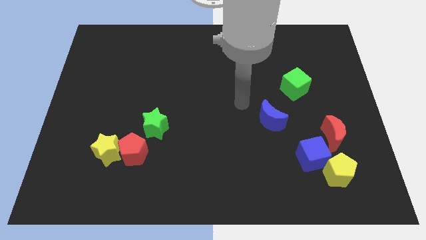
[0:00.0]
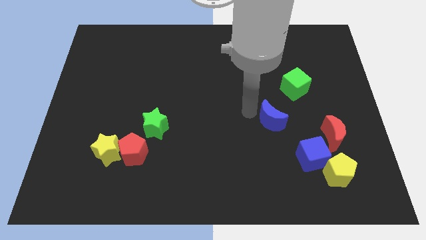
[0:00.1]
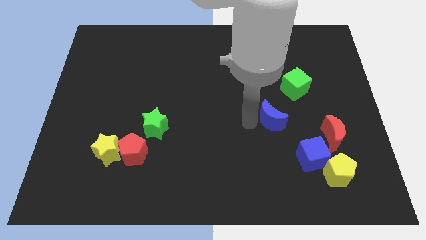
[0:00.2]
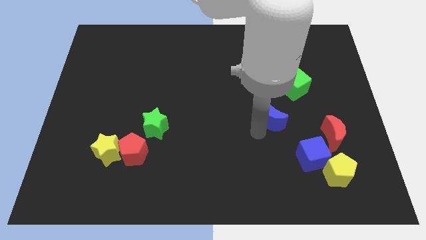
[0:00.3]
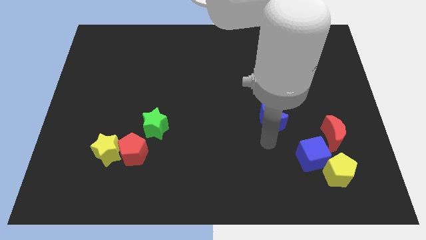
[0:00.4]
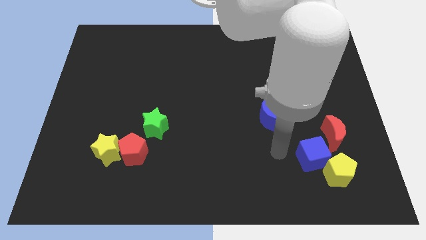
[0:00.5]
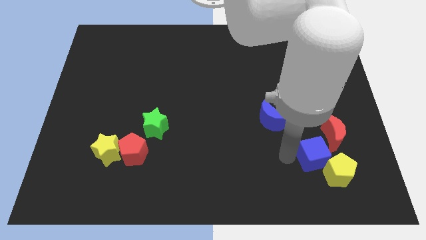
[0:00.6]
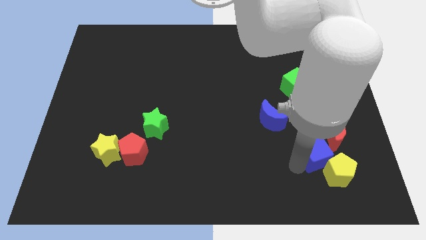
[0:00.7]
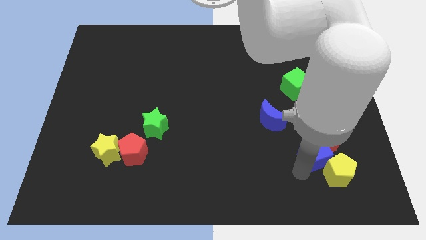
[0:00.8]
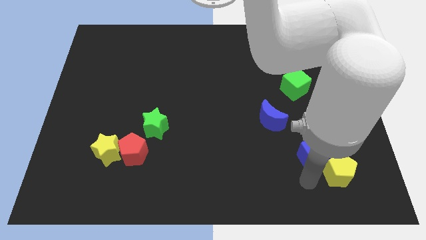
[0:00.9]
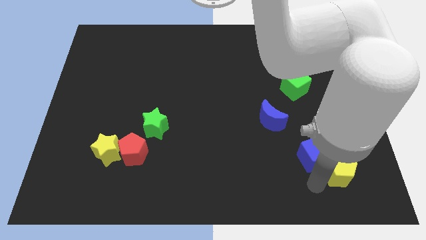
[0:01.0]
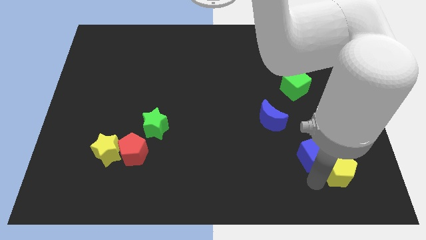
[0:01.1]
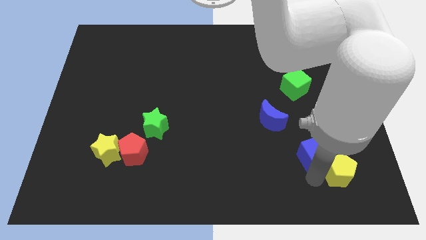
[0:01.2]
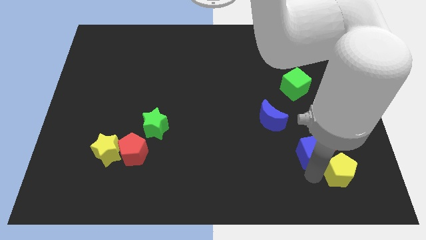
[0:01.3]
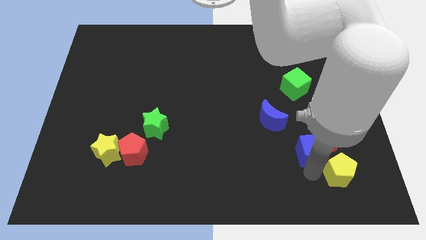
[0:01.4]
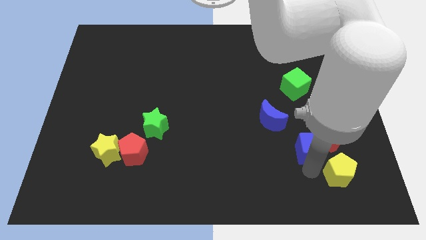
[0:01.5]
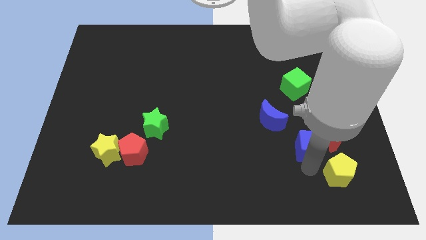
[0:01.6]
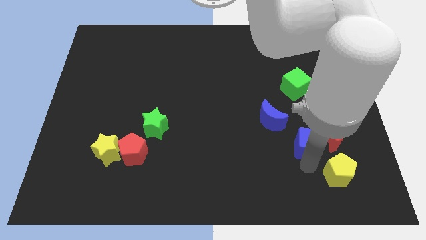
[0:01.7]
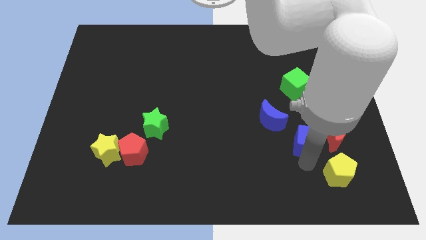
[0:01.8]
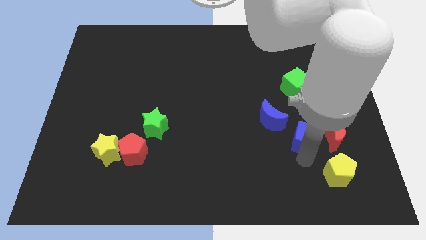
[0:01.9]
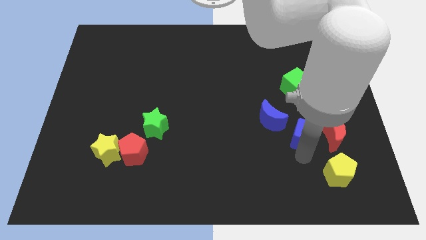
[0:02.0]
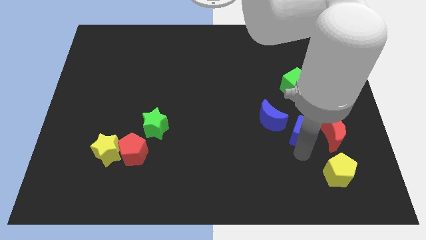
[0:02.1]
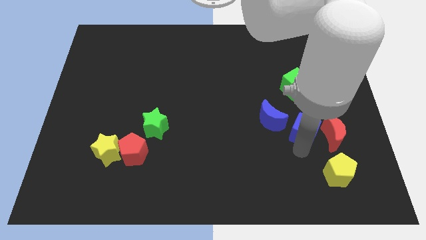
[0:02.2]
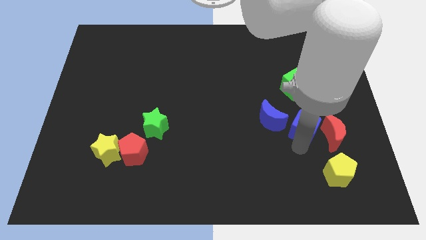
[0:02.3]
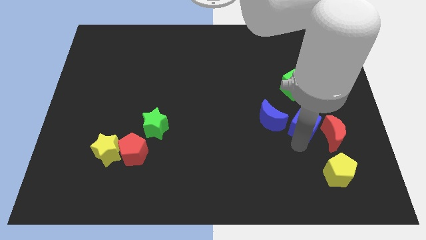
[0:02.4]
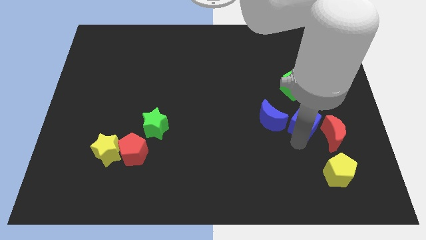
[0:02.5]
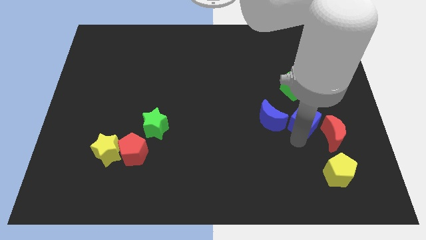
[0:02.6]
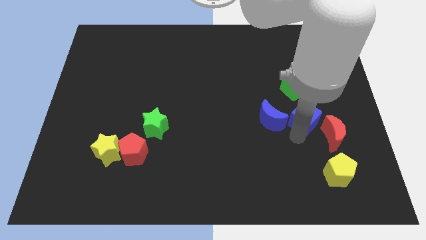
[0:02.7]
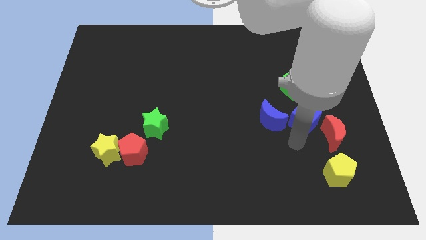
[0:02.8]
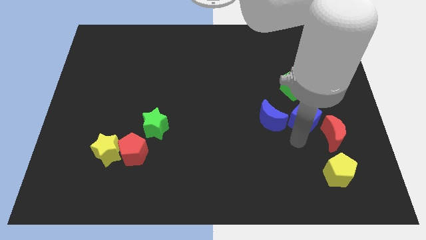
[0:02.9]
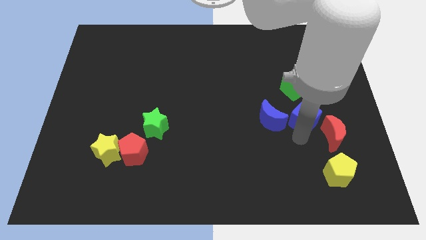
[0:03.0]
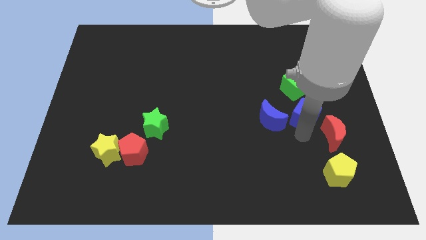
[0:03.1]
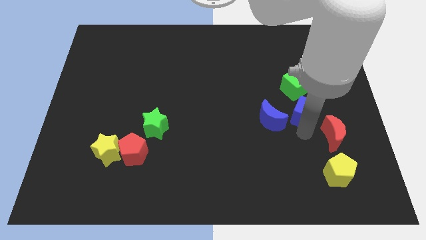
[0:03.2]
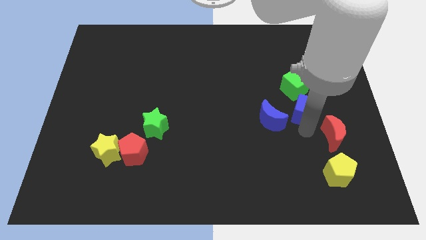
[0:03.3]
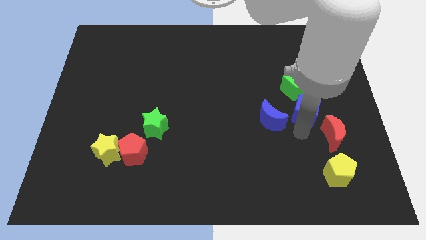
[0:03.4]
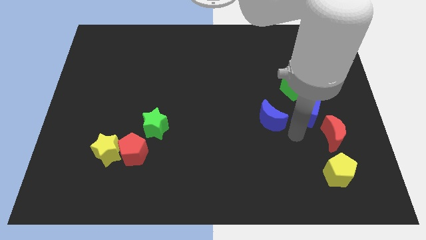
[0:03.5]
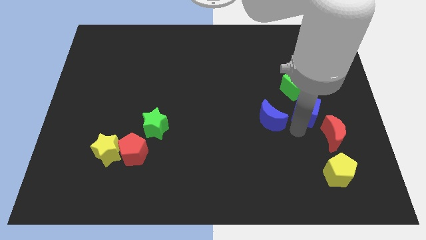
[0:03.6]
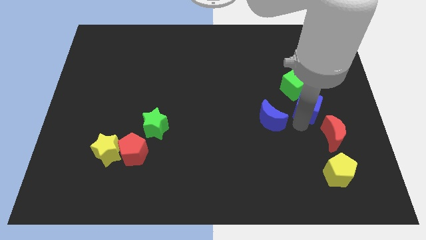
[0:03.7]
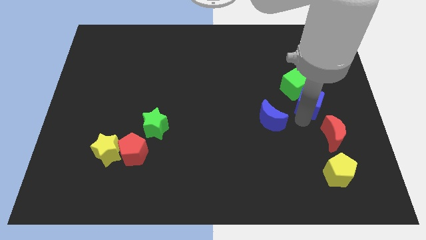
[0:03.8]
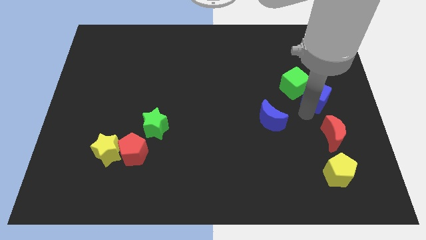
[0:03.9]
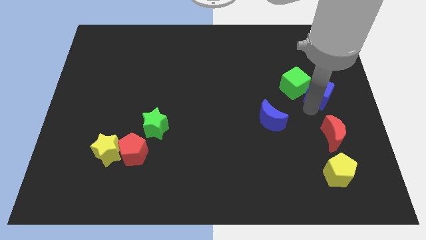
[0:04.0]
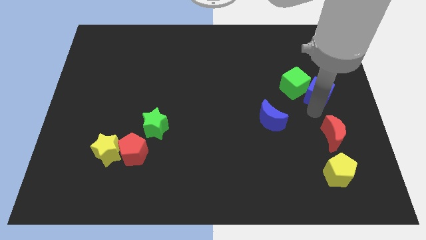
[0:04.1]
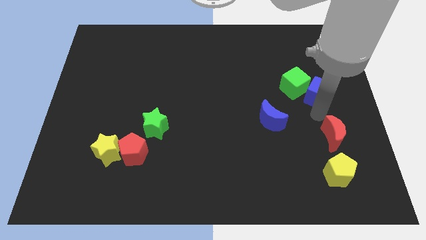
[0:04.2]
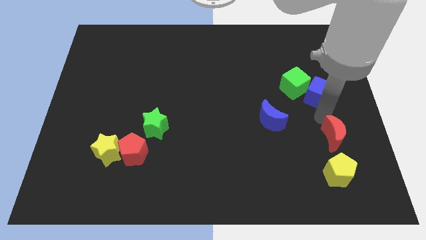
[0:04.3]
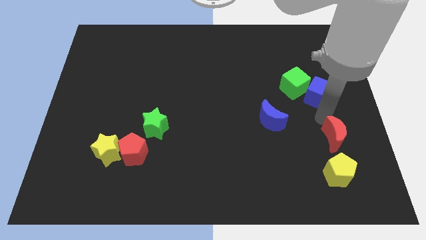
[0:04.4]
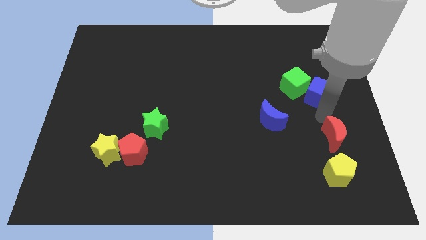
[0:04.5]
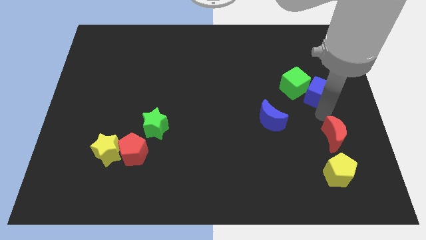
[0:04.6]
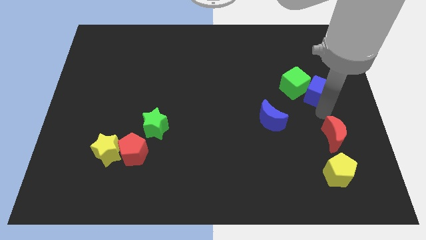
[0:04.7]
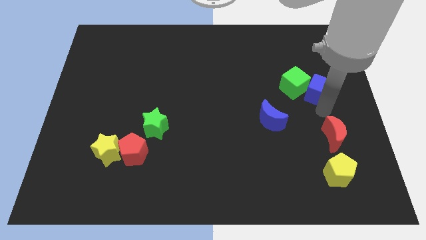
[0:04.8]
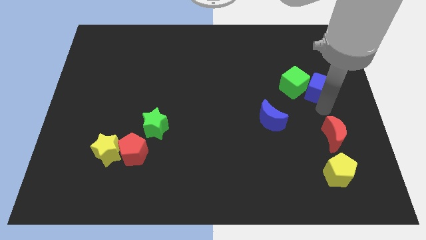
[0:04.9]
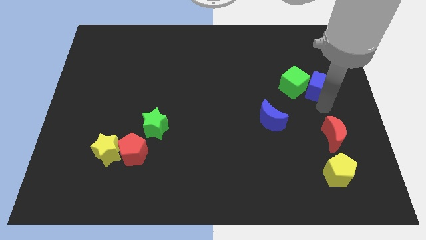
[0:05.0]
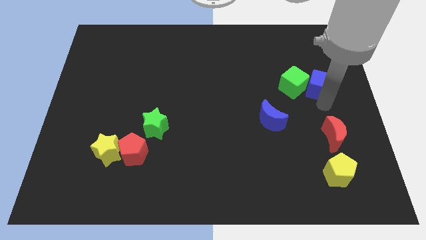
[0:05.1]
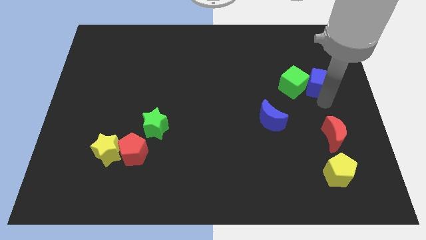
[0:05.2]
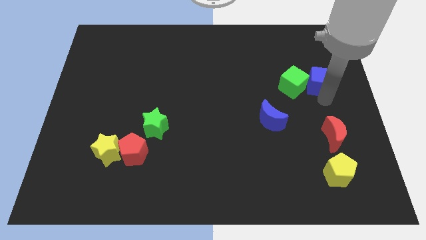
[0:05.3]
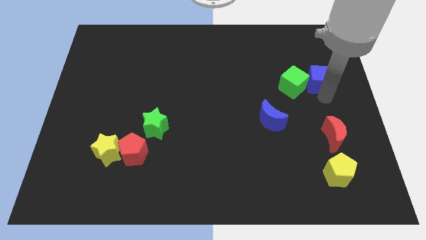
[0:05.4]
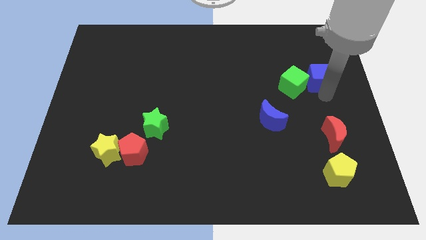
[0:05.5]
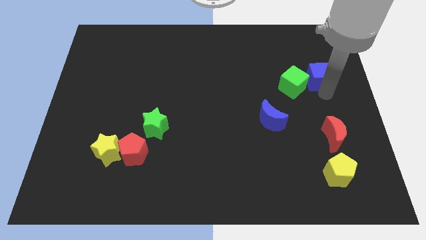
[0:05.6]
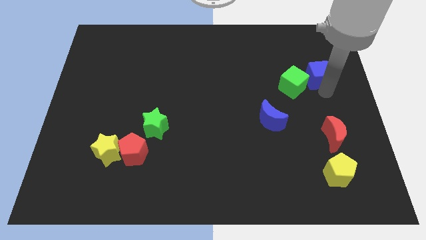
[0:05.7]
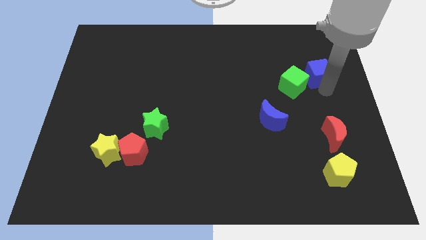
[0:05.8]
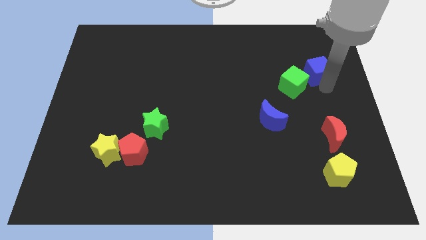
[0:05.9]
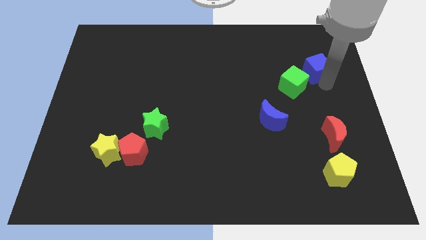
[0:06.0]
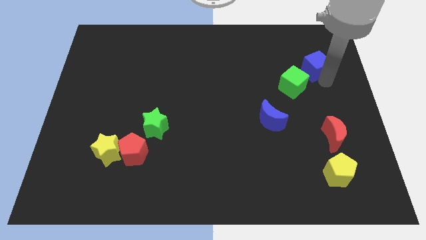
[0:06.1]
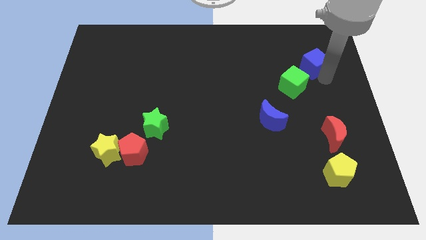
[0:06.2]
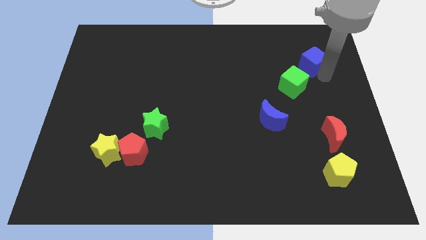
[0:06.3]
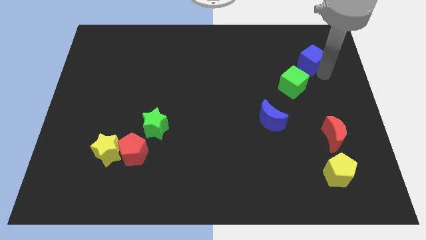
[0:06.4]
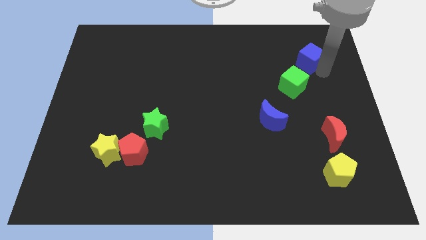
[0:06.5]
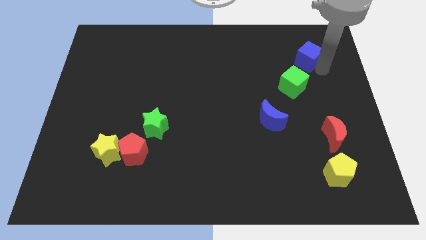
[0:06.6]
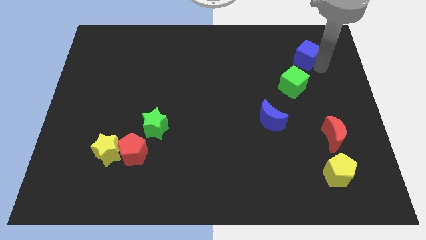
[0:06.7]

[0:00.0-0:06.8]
move the blue cube to the top side of the green cube

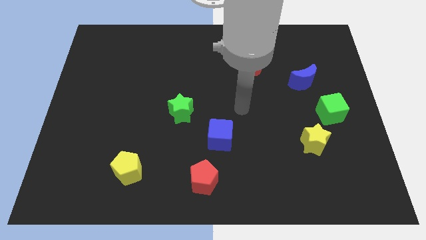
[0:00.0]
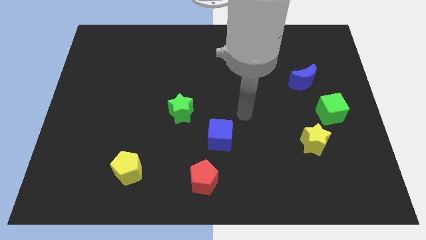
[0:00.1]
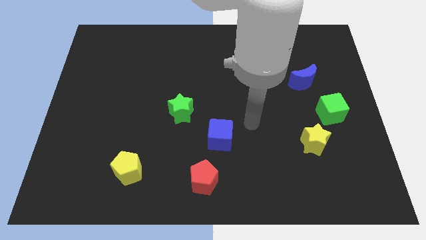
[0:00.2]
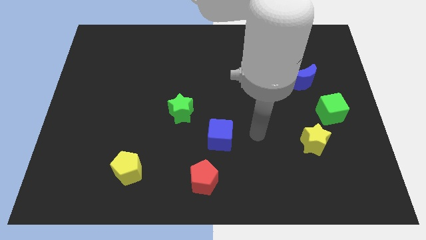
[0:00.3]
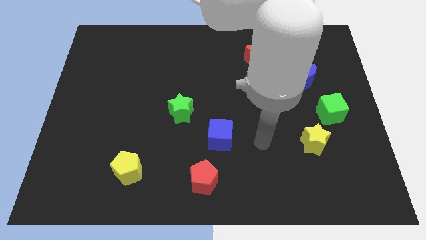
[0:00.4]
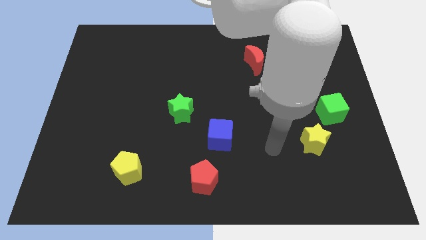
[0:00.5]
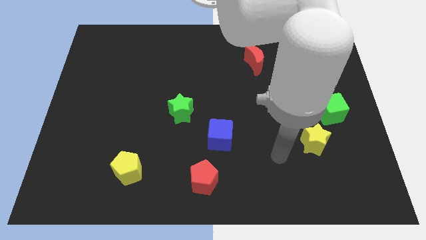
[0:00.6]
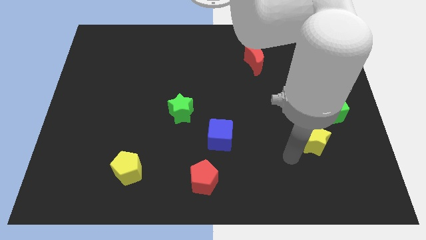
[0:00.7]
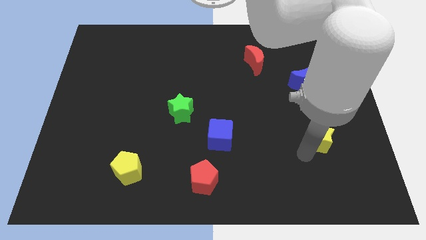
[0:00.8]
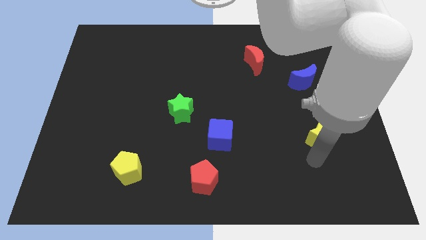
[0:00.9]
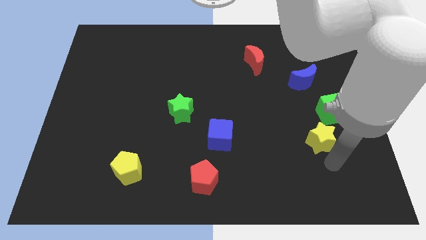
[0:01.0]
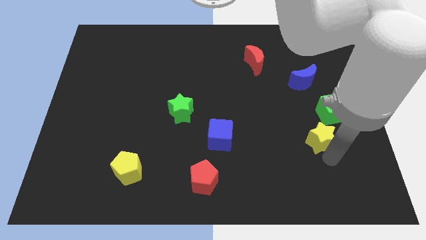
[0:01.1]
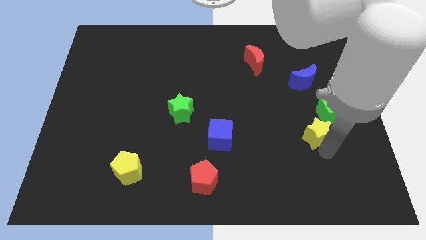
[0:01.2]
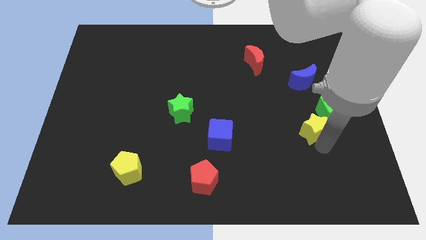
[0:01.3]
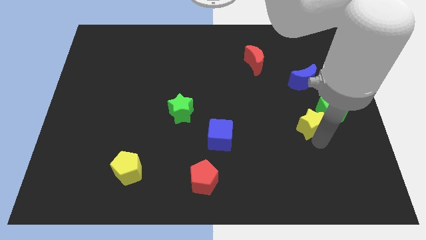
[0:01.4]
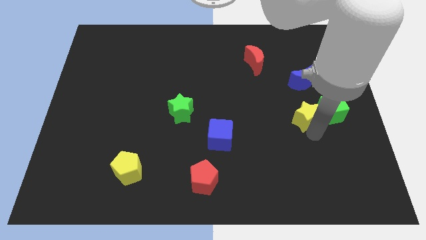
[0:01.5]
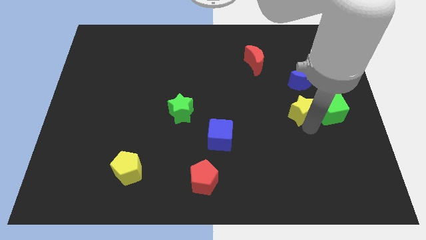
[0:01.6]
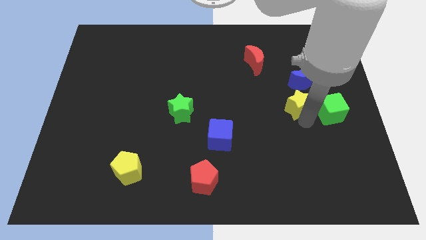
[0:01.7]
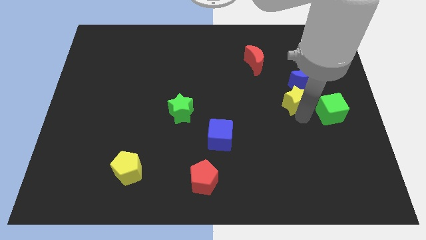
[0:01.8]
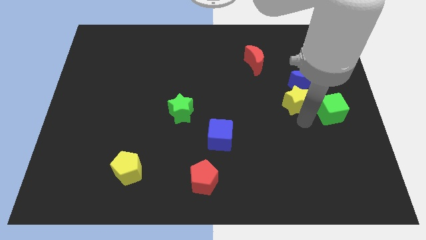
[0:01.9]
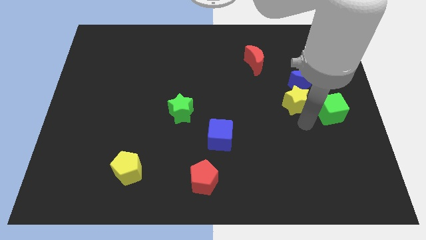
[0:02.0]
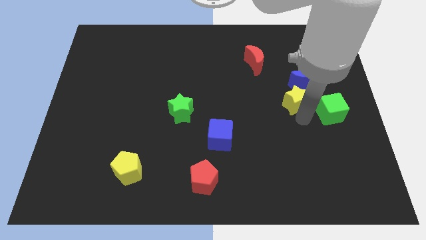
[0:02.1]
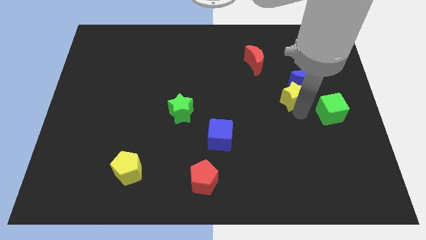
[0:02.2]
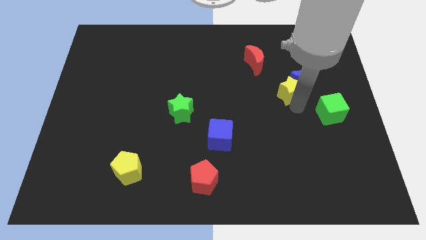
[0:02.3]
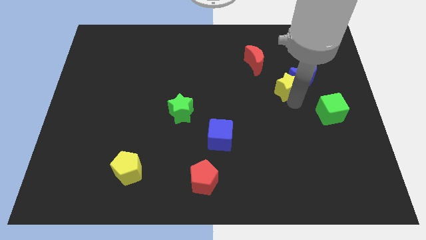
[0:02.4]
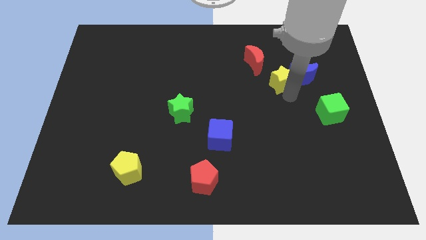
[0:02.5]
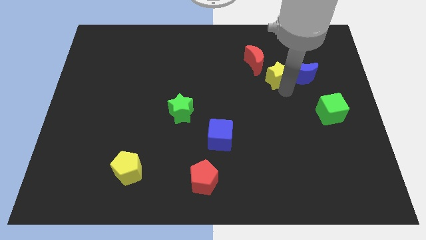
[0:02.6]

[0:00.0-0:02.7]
push the yellow star diagonally up and to the left of the blue moon
